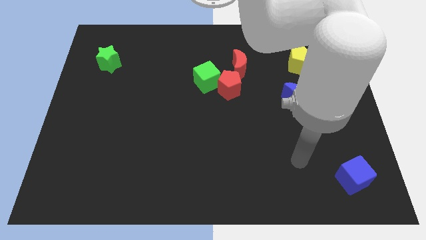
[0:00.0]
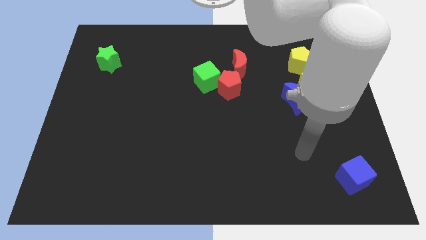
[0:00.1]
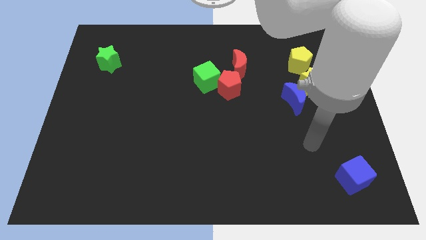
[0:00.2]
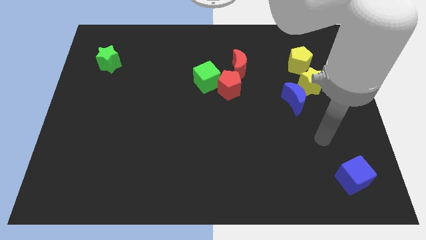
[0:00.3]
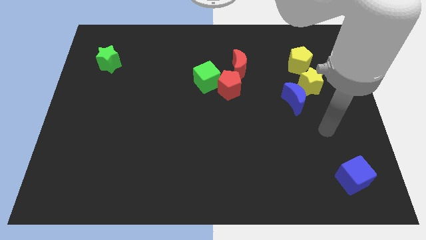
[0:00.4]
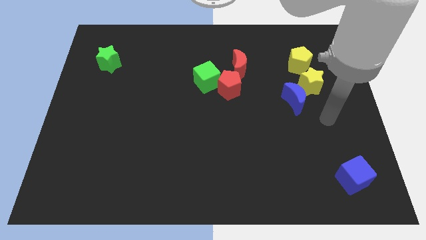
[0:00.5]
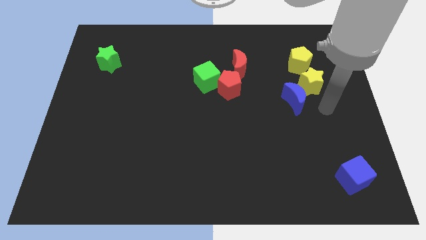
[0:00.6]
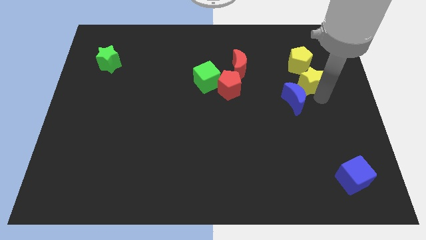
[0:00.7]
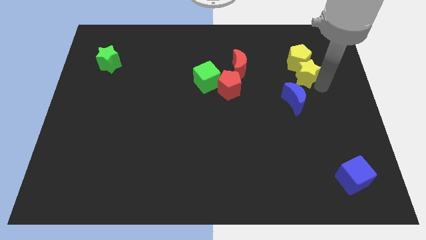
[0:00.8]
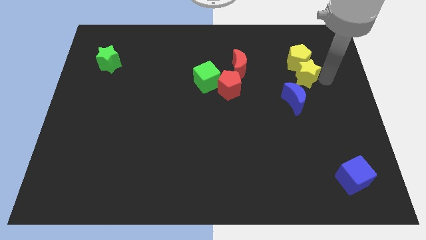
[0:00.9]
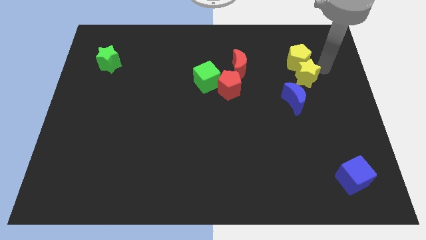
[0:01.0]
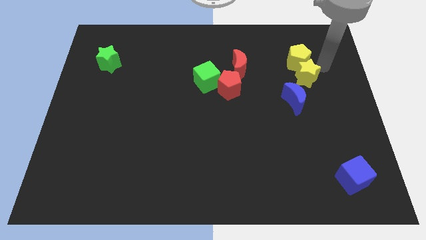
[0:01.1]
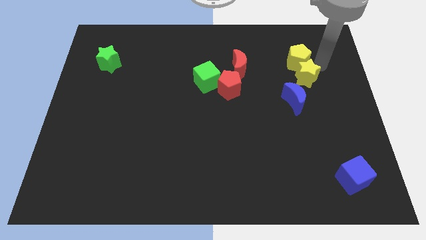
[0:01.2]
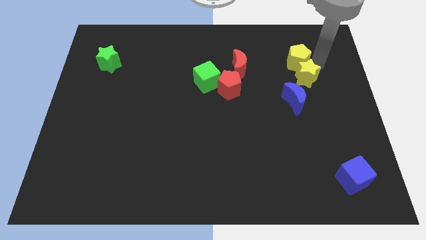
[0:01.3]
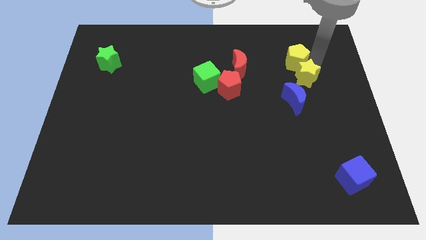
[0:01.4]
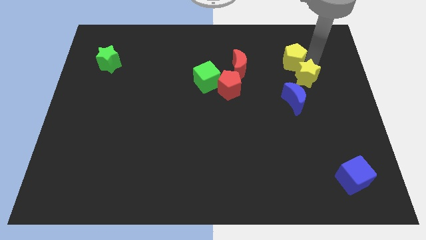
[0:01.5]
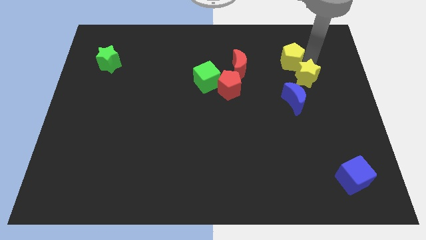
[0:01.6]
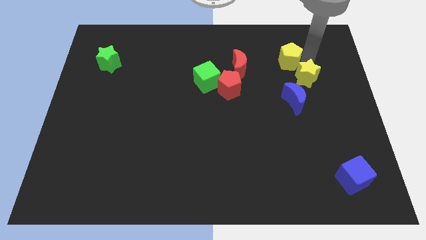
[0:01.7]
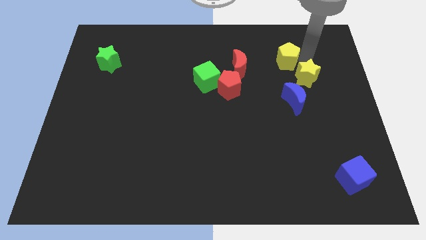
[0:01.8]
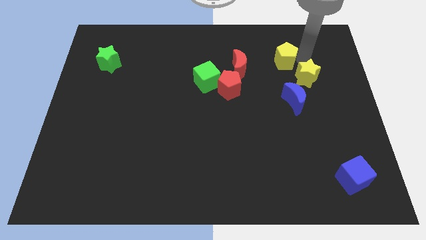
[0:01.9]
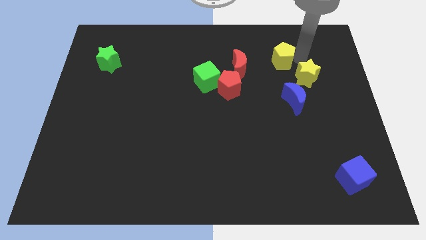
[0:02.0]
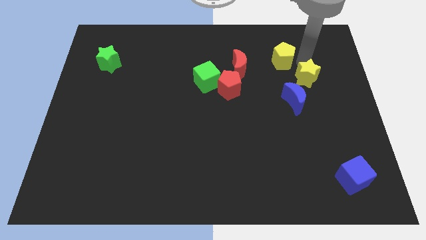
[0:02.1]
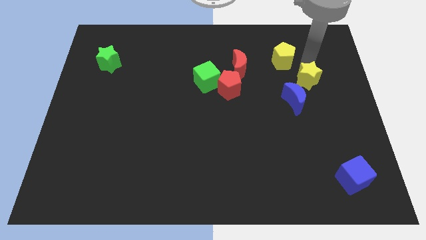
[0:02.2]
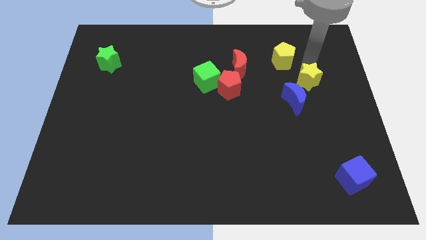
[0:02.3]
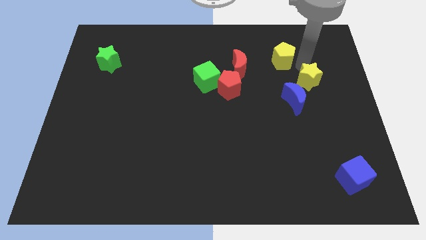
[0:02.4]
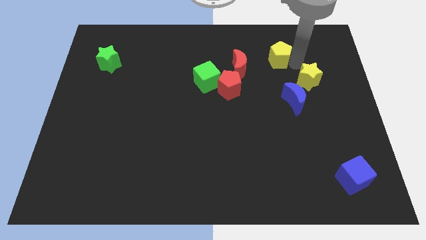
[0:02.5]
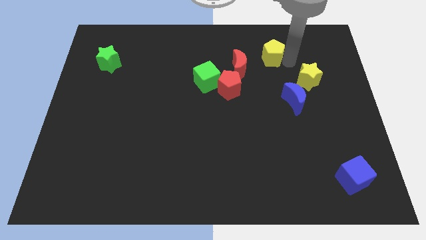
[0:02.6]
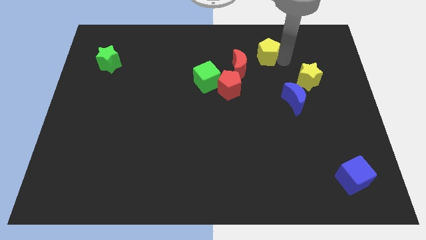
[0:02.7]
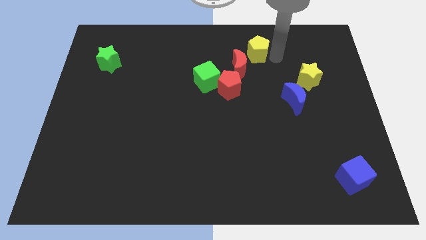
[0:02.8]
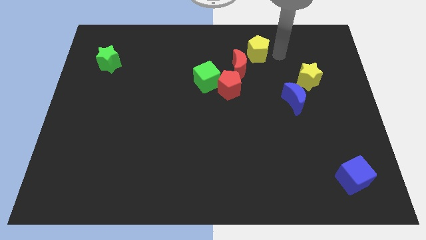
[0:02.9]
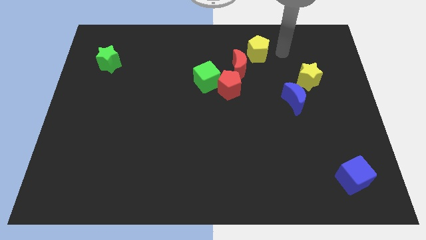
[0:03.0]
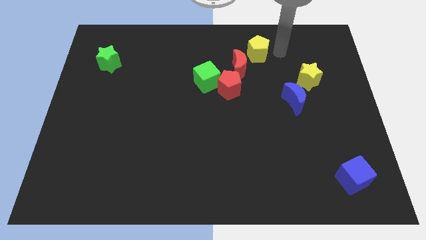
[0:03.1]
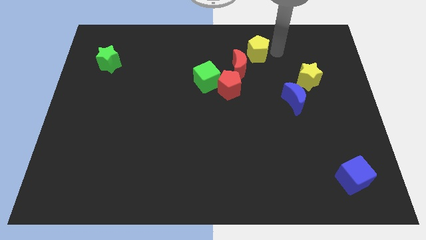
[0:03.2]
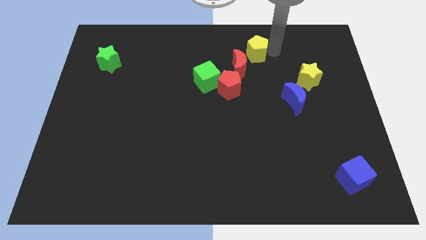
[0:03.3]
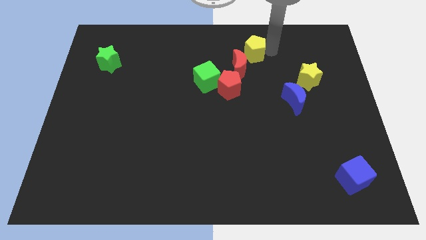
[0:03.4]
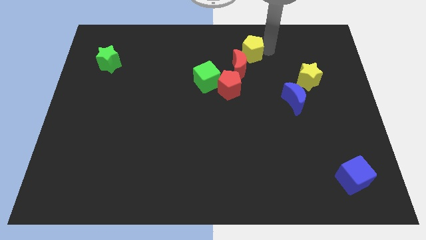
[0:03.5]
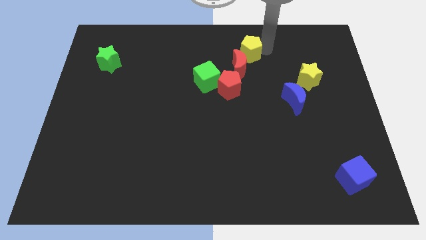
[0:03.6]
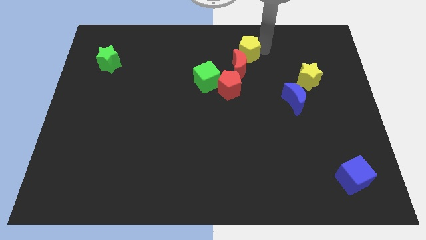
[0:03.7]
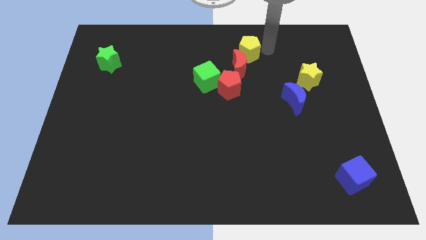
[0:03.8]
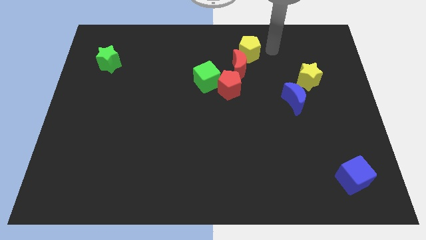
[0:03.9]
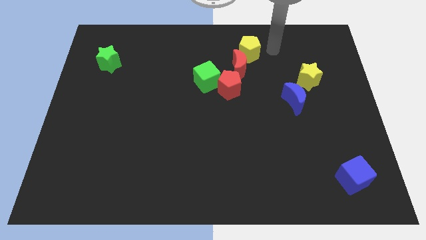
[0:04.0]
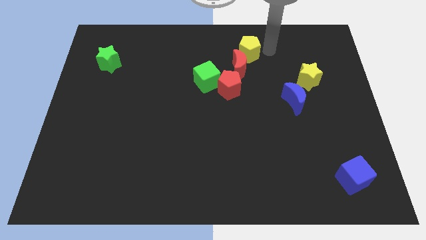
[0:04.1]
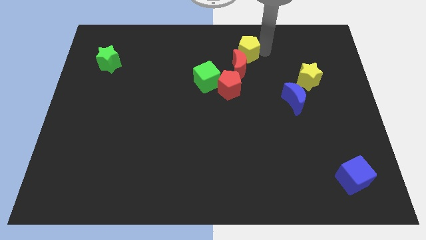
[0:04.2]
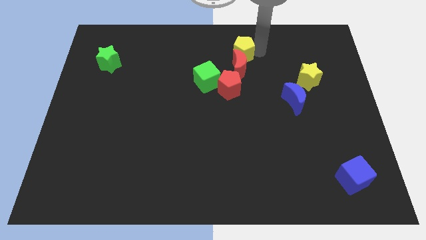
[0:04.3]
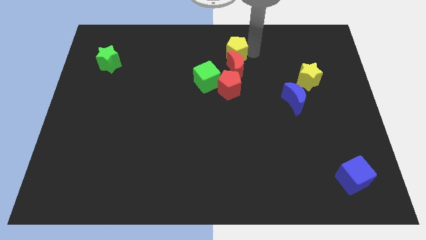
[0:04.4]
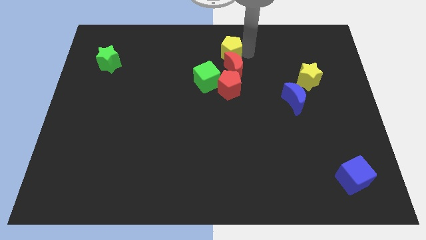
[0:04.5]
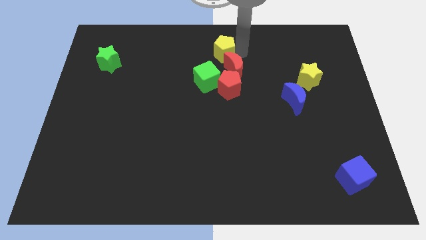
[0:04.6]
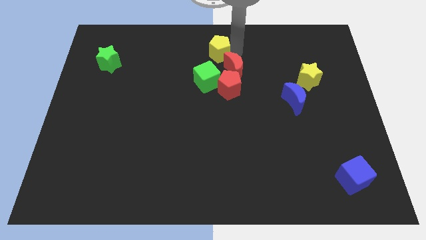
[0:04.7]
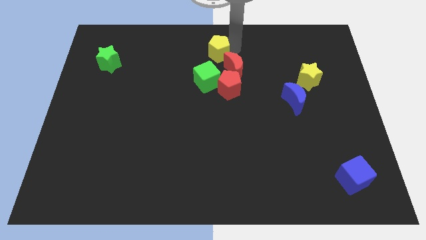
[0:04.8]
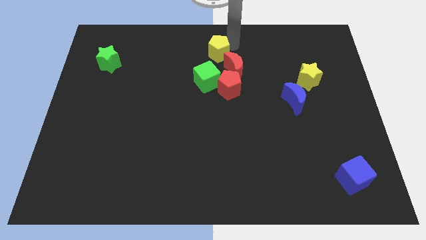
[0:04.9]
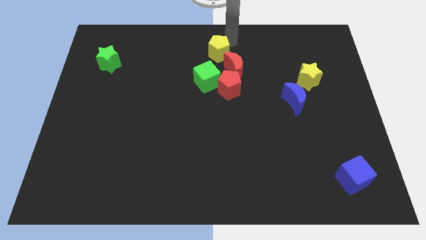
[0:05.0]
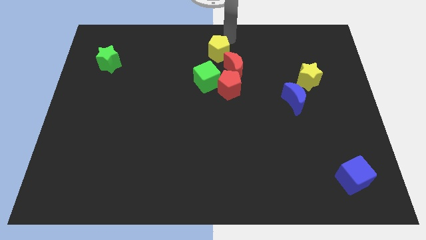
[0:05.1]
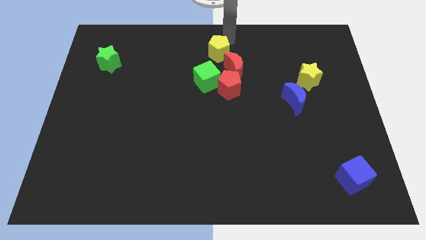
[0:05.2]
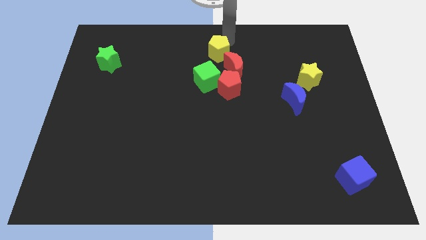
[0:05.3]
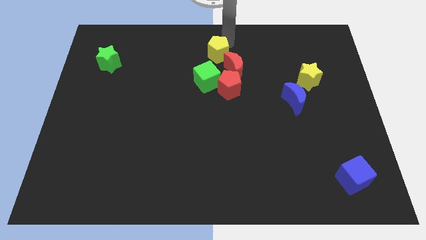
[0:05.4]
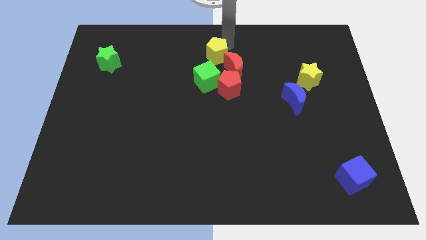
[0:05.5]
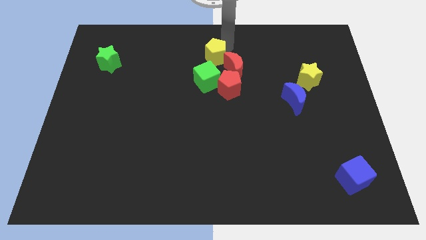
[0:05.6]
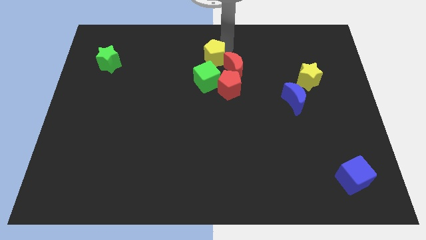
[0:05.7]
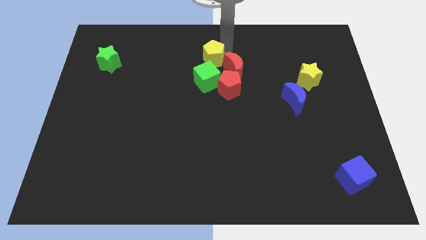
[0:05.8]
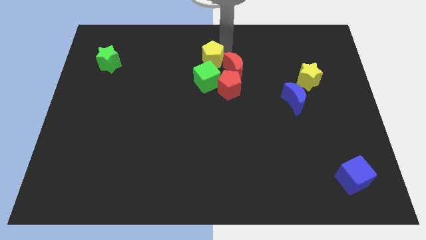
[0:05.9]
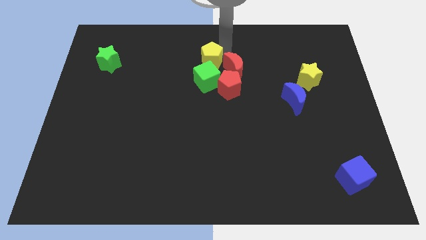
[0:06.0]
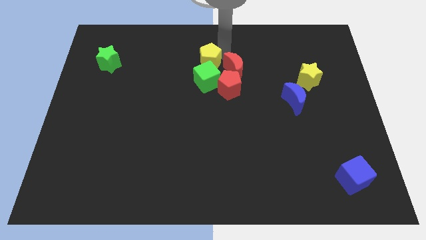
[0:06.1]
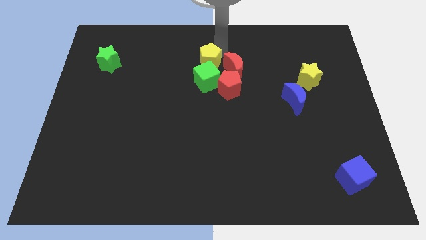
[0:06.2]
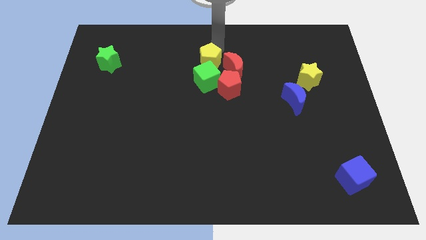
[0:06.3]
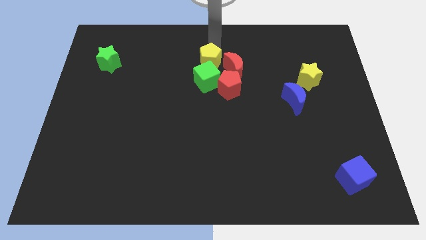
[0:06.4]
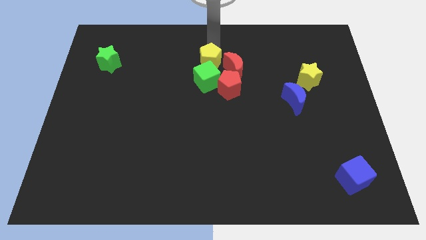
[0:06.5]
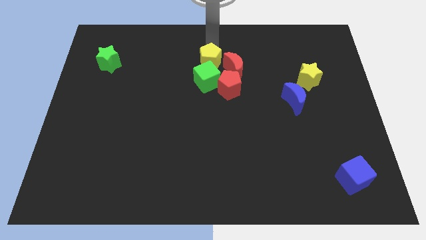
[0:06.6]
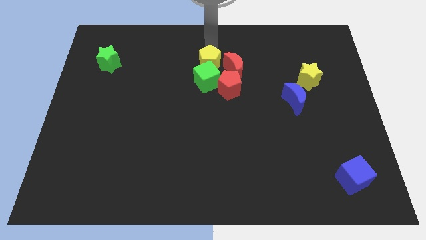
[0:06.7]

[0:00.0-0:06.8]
move the yellow pentagon next to the green cube

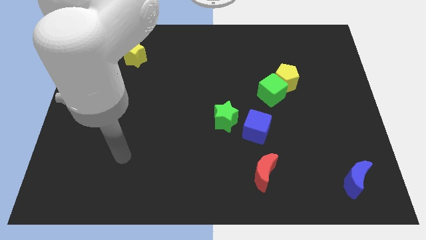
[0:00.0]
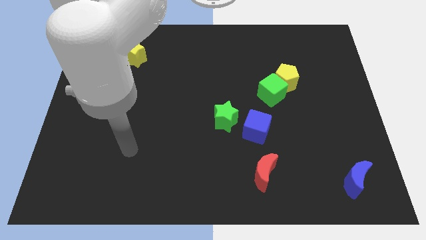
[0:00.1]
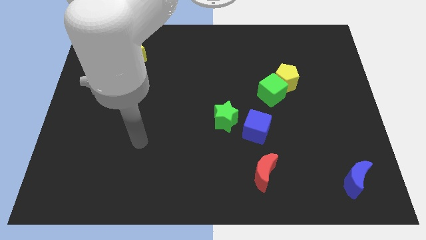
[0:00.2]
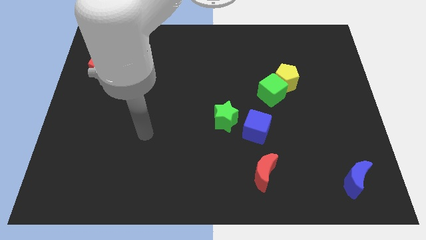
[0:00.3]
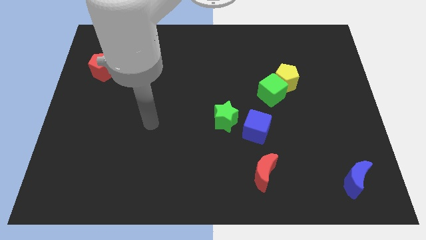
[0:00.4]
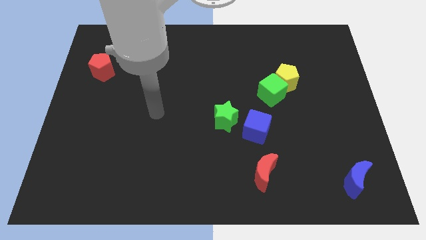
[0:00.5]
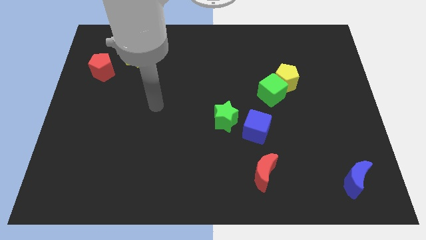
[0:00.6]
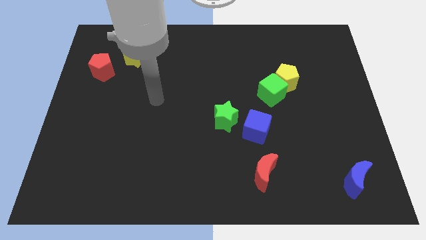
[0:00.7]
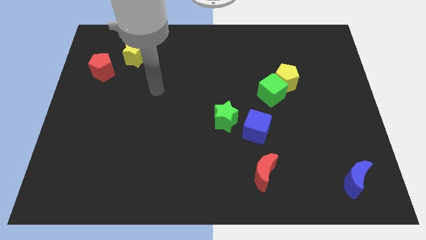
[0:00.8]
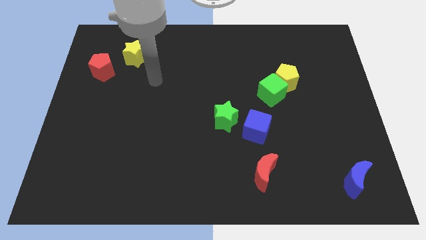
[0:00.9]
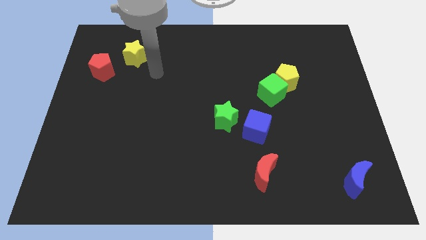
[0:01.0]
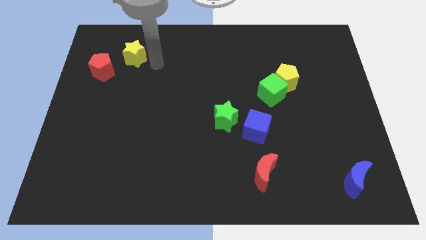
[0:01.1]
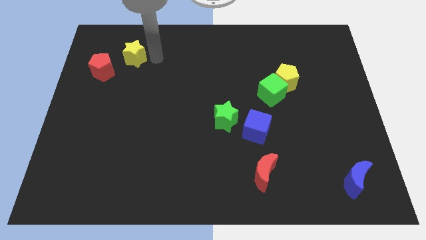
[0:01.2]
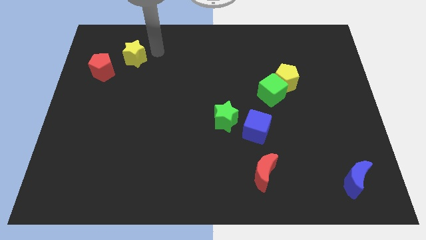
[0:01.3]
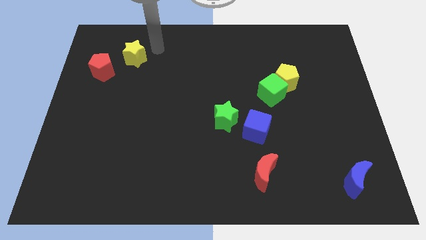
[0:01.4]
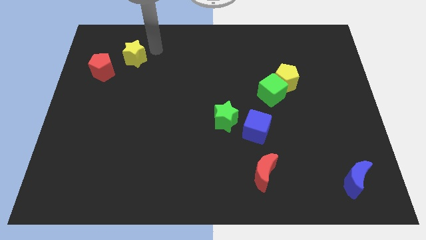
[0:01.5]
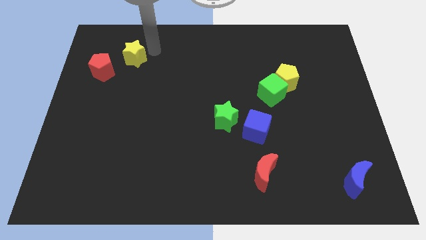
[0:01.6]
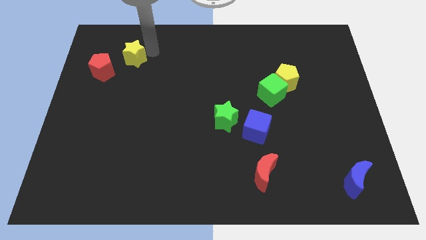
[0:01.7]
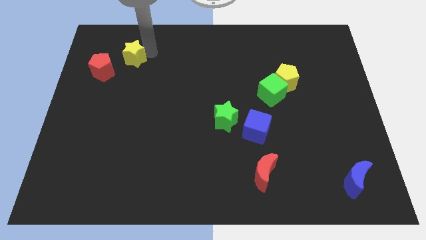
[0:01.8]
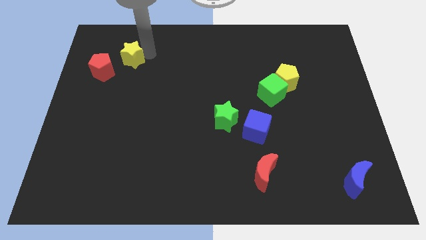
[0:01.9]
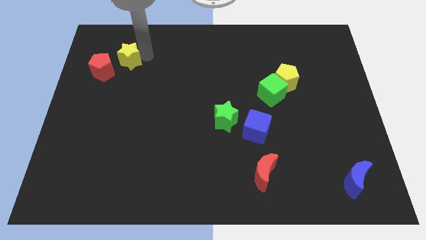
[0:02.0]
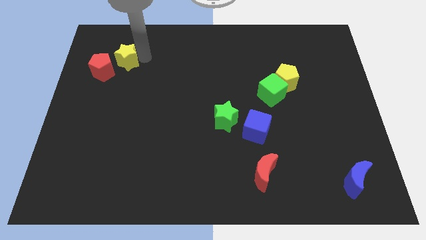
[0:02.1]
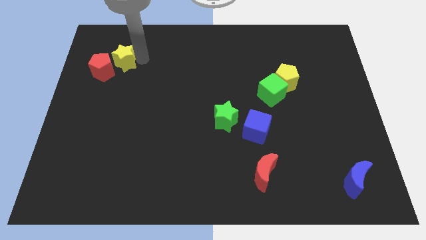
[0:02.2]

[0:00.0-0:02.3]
slide the yellow star towards the red pentagon
